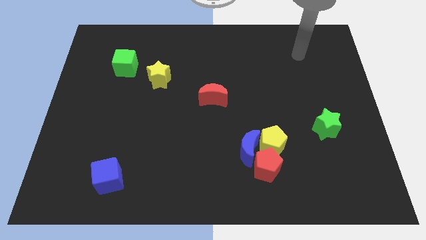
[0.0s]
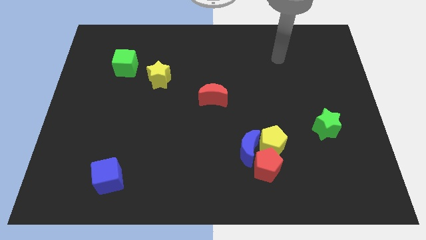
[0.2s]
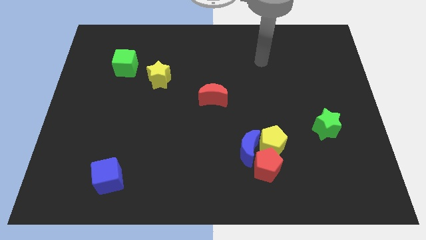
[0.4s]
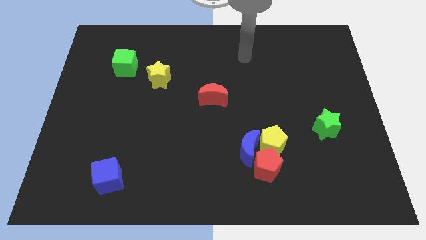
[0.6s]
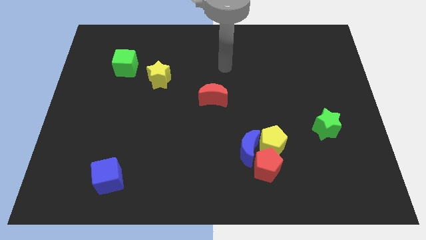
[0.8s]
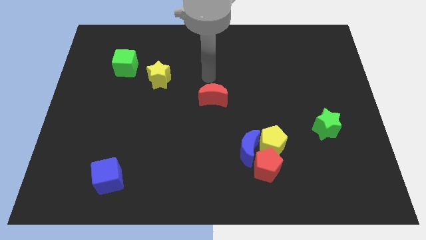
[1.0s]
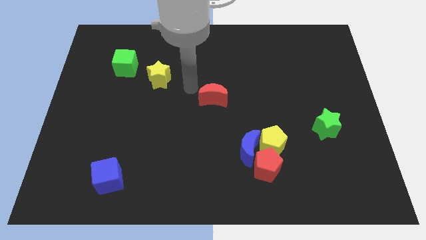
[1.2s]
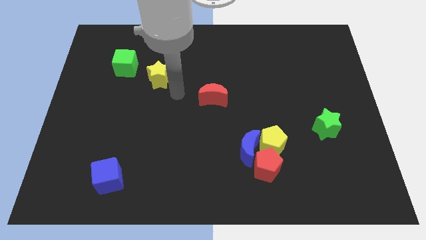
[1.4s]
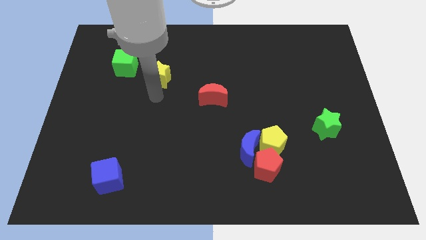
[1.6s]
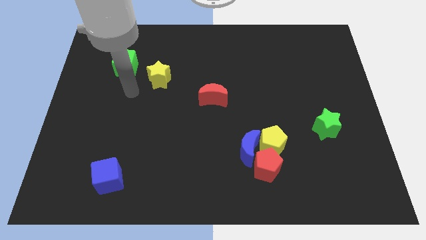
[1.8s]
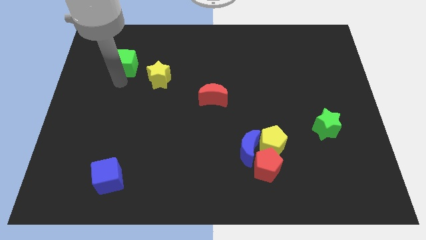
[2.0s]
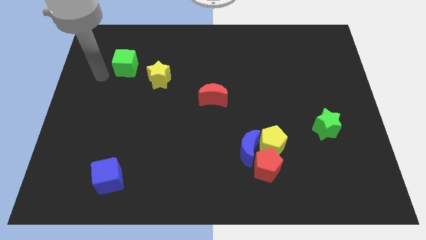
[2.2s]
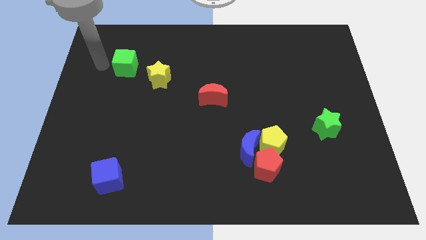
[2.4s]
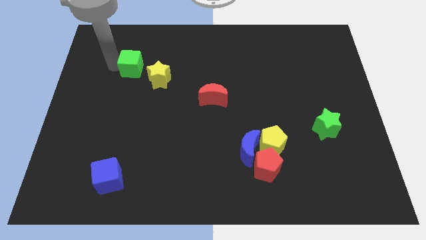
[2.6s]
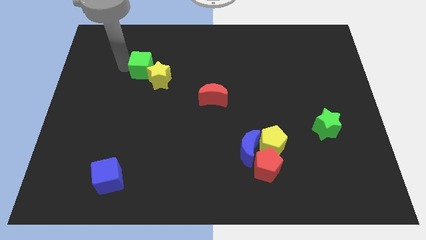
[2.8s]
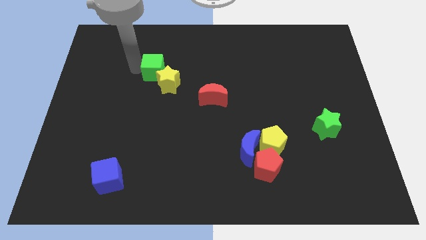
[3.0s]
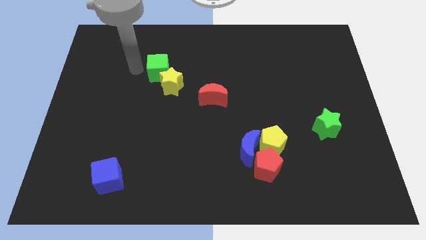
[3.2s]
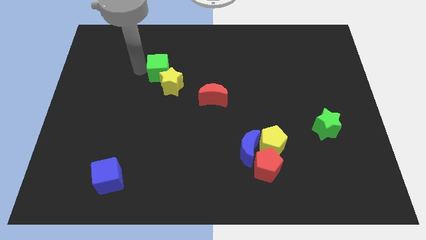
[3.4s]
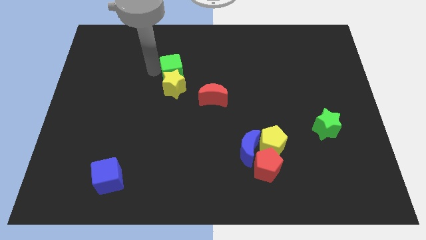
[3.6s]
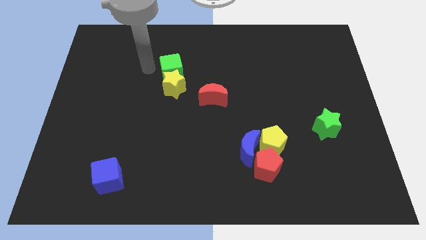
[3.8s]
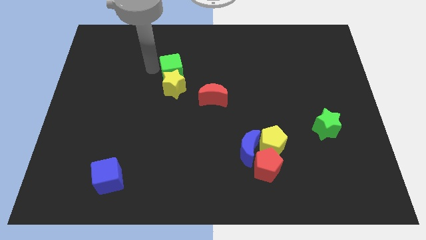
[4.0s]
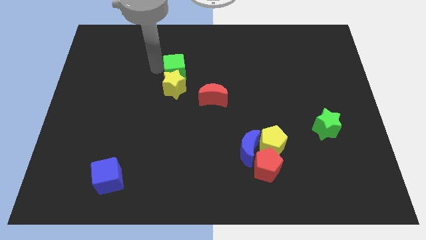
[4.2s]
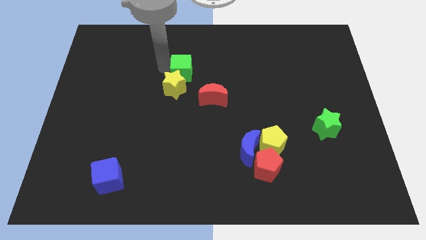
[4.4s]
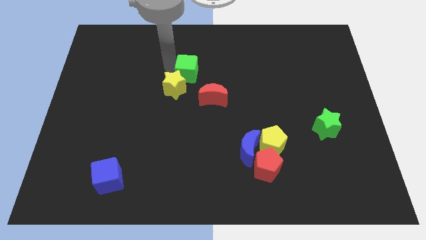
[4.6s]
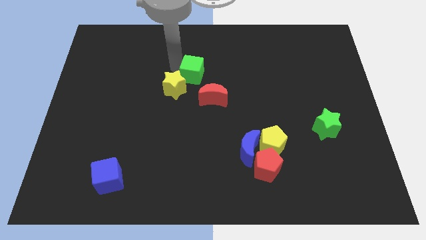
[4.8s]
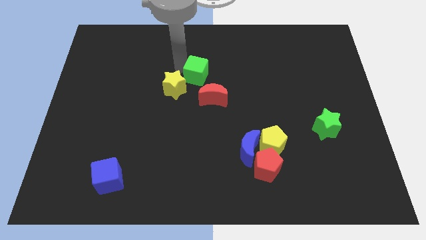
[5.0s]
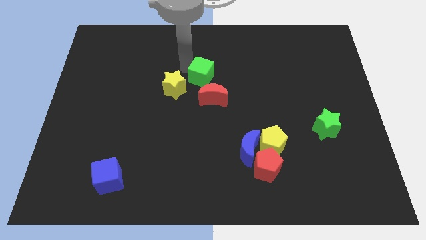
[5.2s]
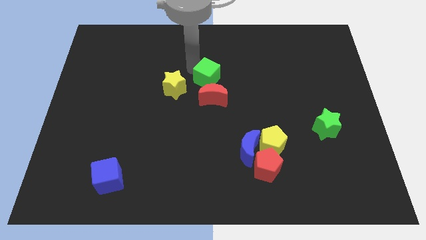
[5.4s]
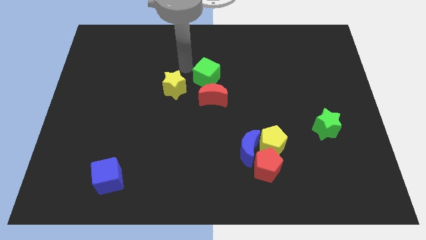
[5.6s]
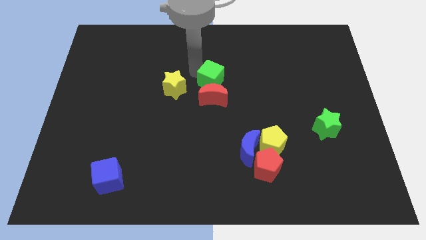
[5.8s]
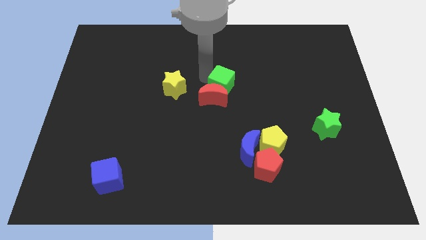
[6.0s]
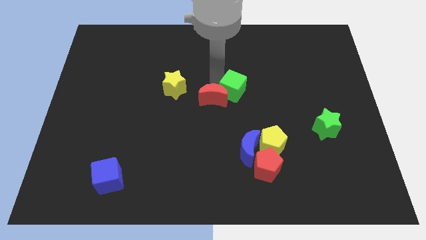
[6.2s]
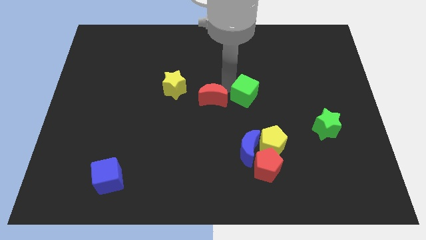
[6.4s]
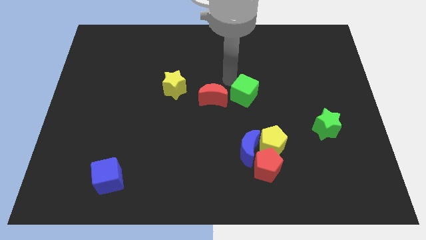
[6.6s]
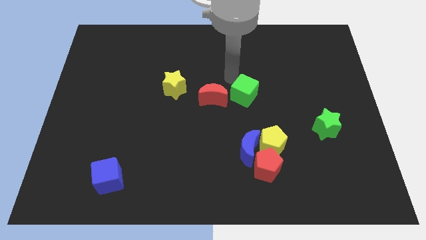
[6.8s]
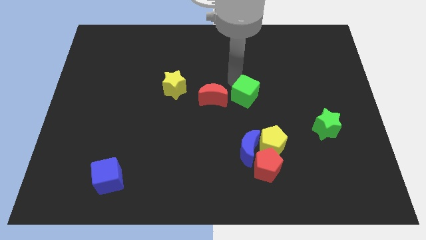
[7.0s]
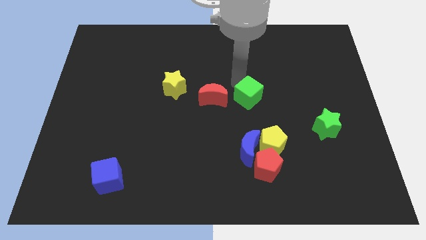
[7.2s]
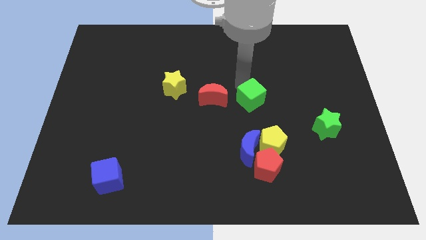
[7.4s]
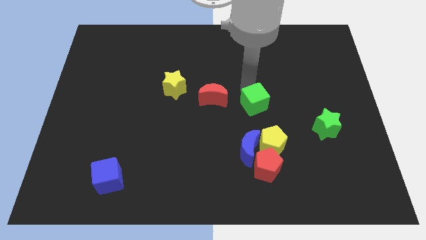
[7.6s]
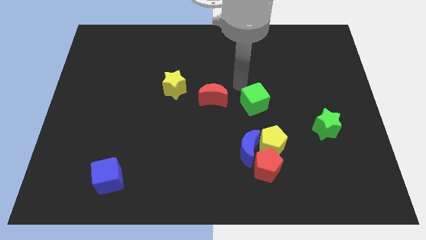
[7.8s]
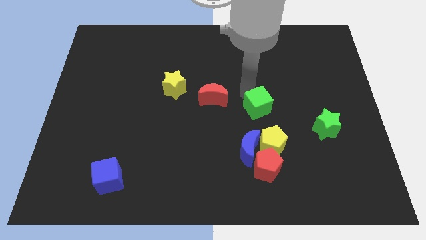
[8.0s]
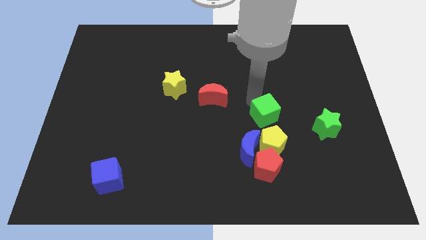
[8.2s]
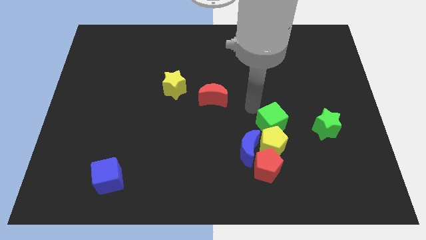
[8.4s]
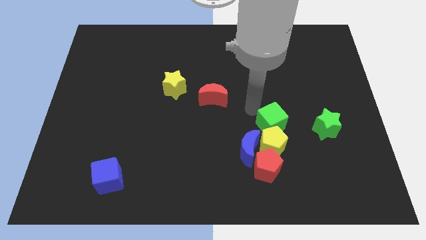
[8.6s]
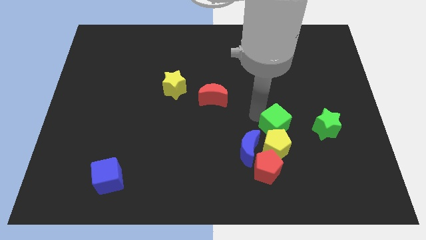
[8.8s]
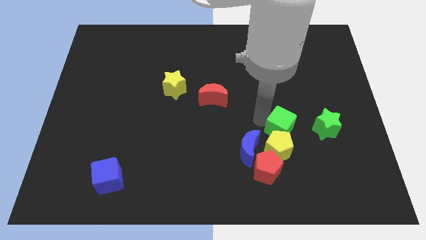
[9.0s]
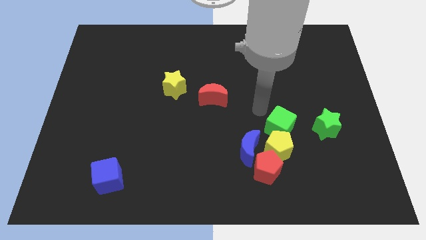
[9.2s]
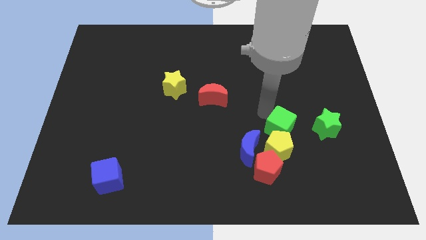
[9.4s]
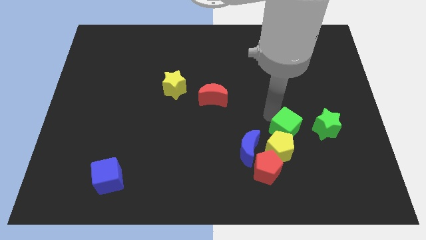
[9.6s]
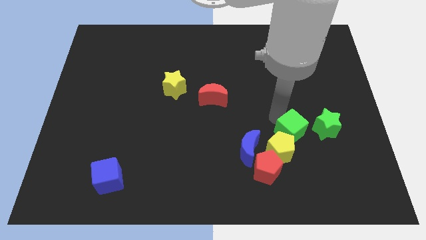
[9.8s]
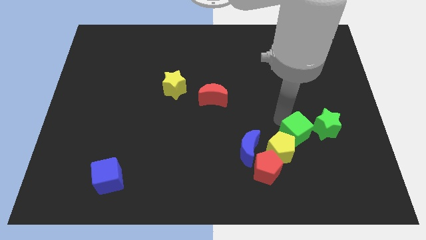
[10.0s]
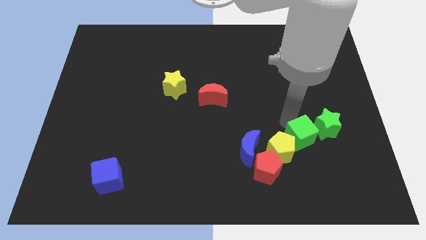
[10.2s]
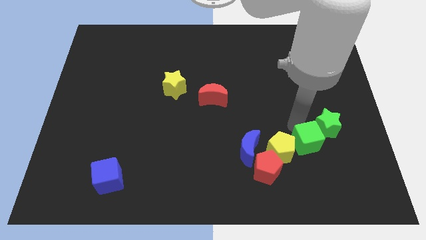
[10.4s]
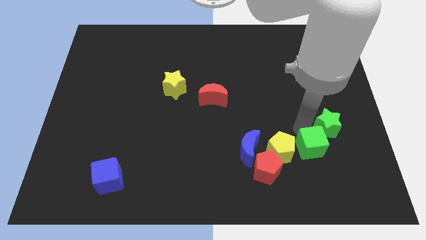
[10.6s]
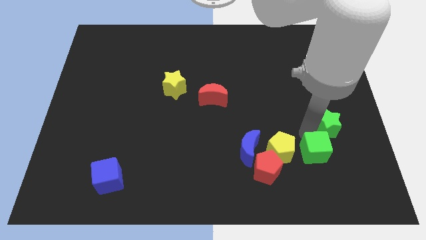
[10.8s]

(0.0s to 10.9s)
slide the green cube just right of the red pentagon

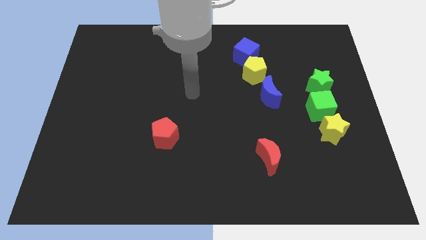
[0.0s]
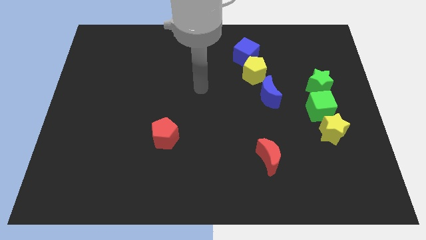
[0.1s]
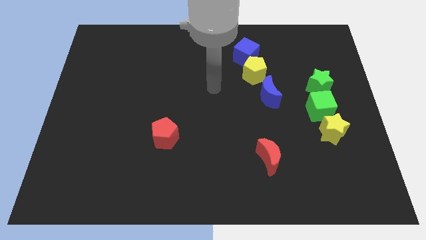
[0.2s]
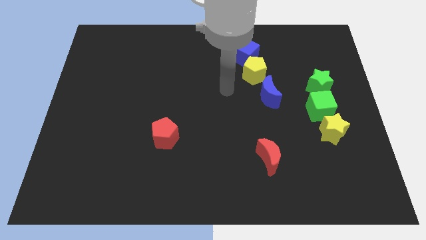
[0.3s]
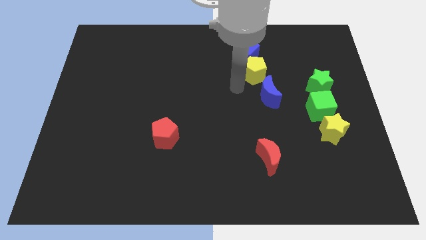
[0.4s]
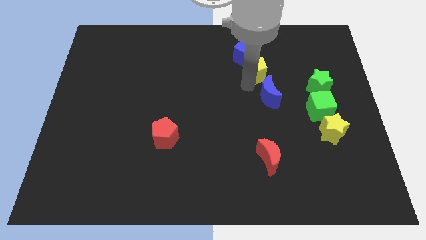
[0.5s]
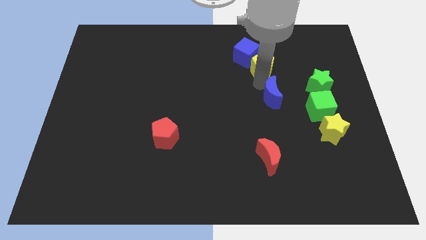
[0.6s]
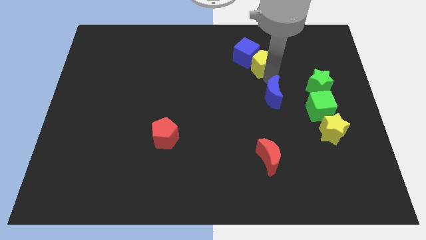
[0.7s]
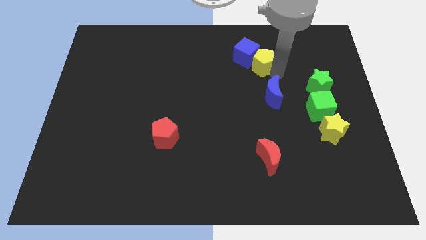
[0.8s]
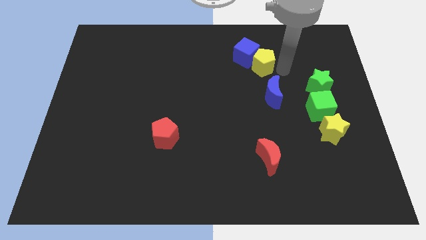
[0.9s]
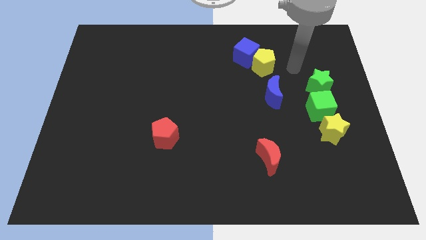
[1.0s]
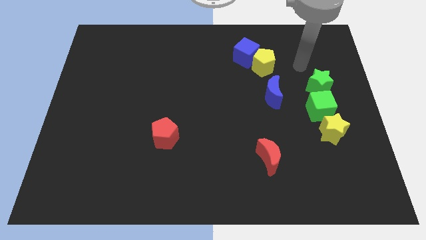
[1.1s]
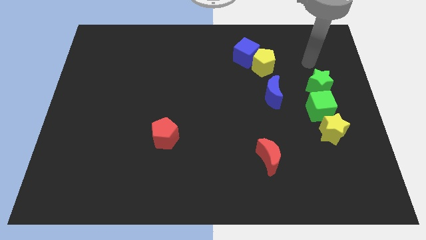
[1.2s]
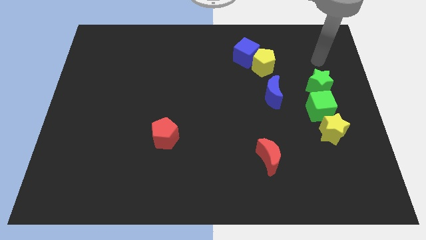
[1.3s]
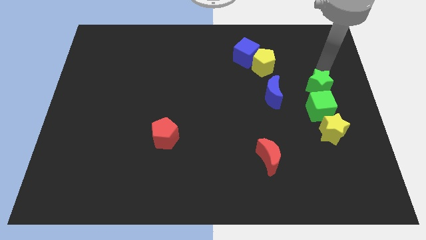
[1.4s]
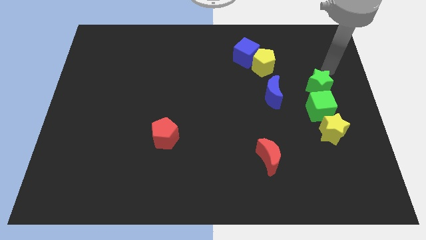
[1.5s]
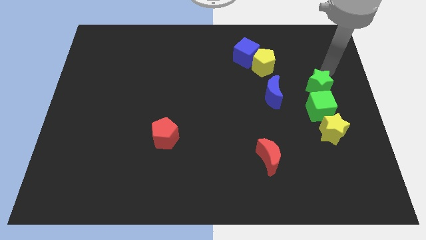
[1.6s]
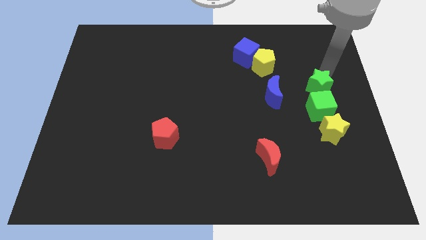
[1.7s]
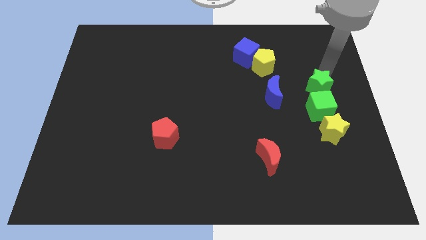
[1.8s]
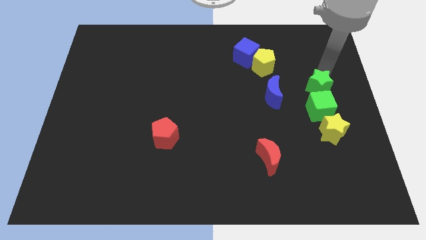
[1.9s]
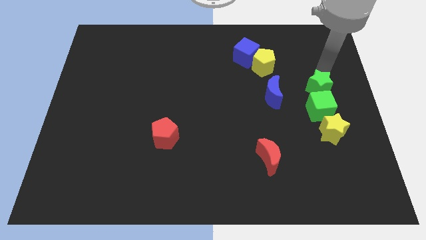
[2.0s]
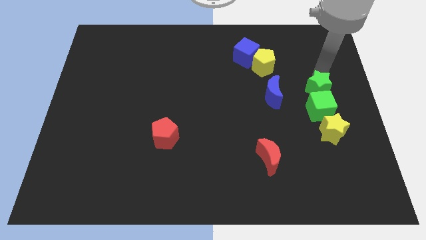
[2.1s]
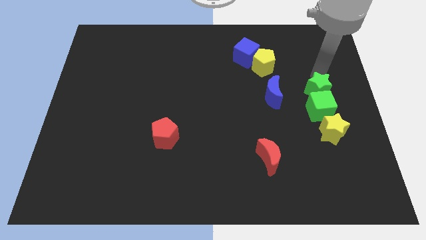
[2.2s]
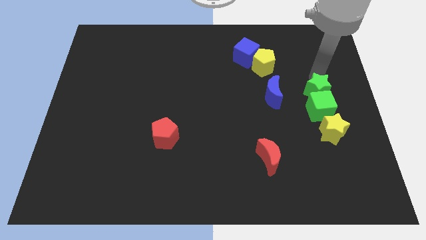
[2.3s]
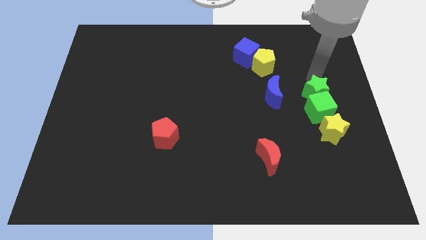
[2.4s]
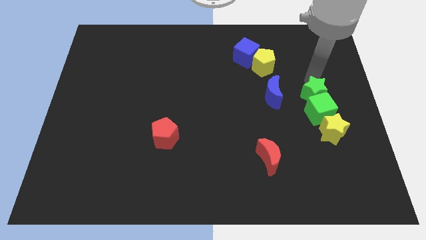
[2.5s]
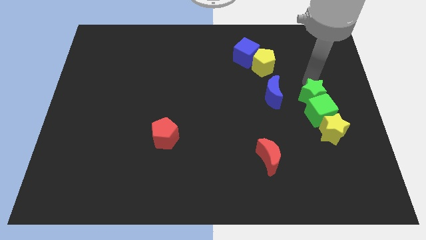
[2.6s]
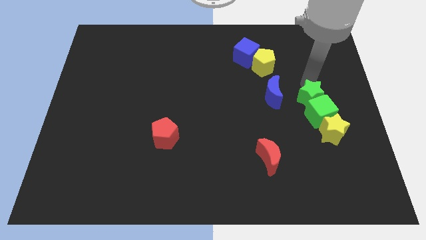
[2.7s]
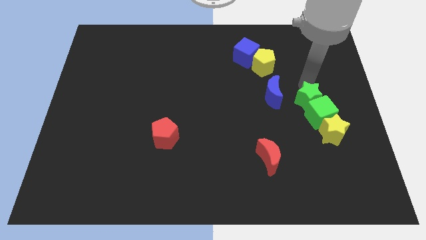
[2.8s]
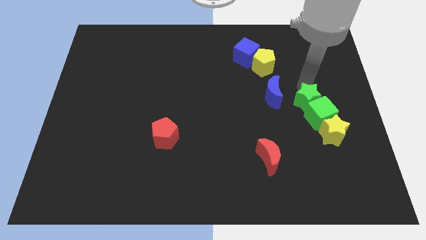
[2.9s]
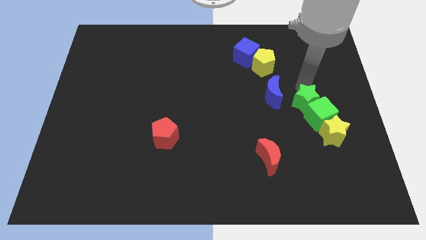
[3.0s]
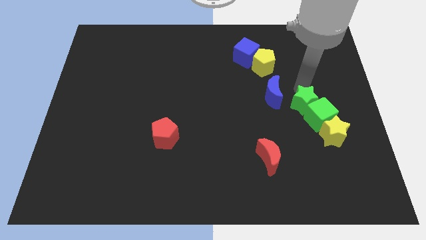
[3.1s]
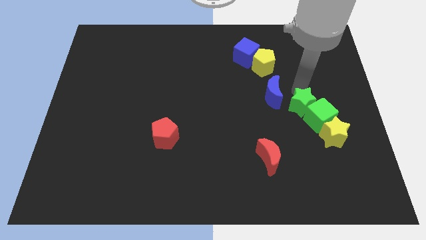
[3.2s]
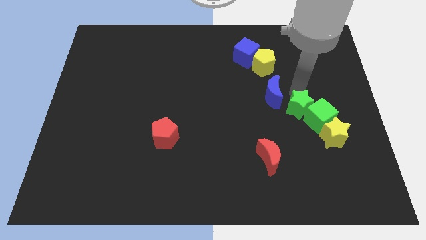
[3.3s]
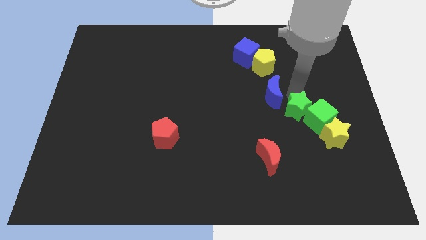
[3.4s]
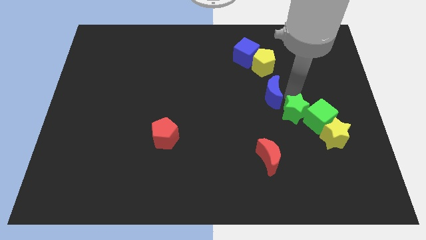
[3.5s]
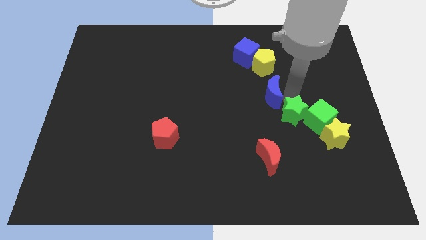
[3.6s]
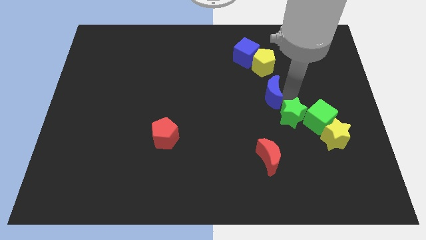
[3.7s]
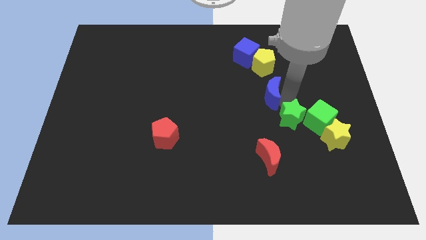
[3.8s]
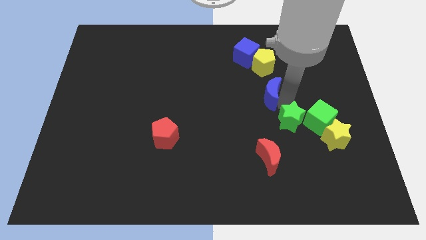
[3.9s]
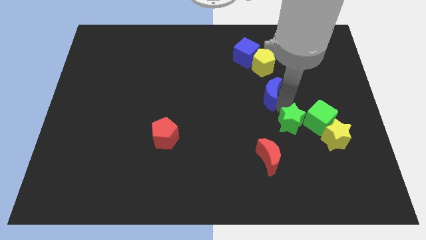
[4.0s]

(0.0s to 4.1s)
move the green star to the left of the yellow star
